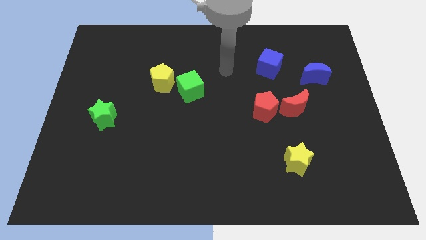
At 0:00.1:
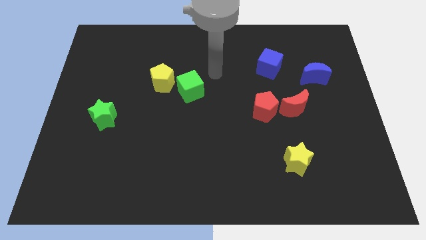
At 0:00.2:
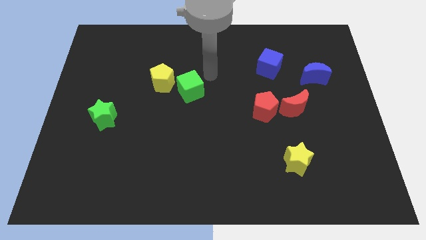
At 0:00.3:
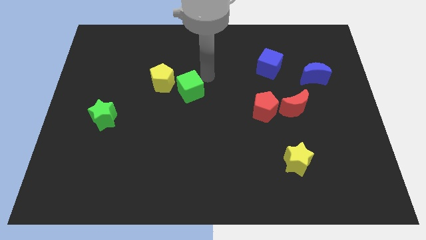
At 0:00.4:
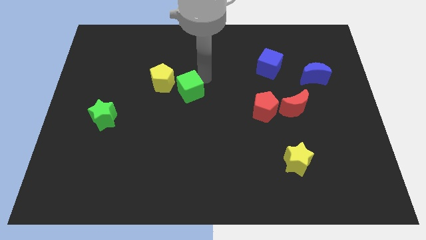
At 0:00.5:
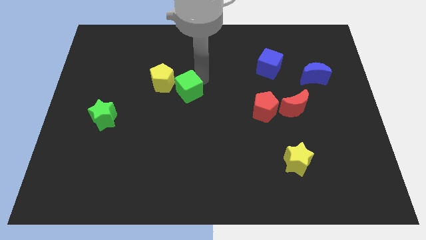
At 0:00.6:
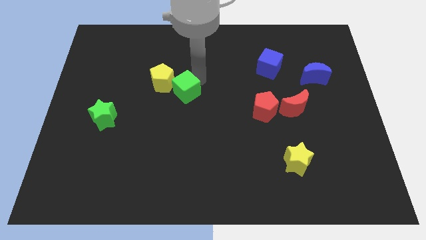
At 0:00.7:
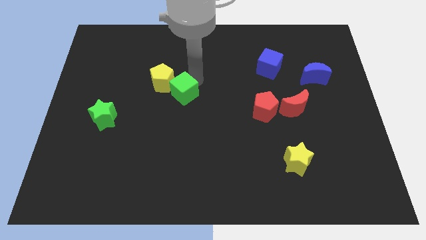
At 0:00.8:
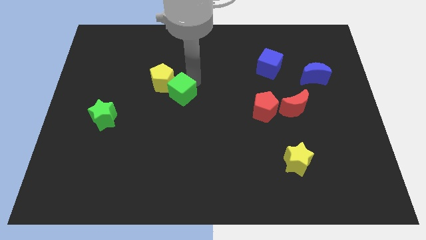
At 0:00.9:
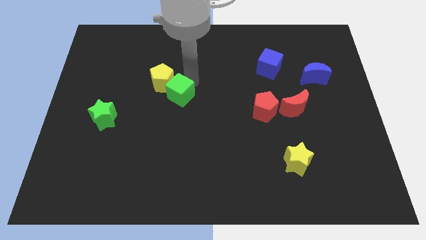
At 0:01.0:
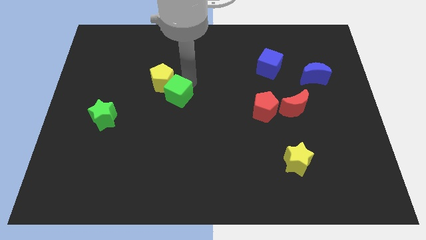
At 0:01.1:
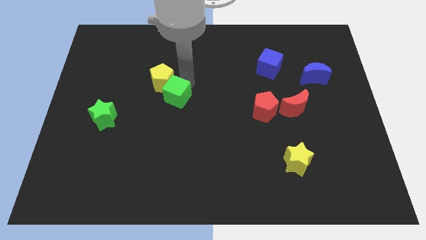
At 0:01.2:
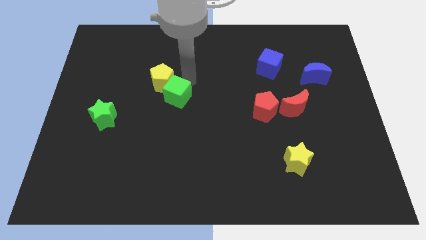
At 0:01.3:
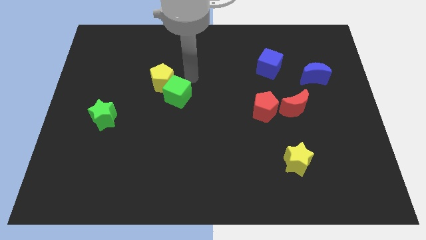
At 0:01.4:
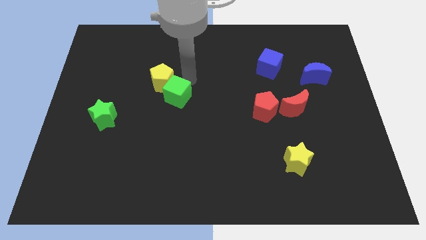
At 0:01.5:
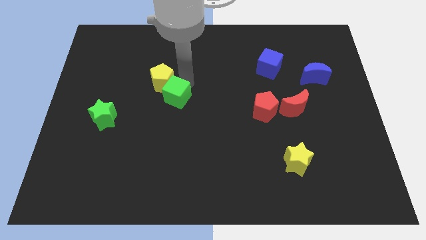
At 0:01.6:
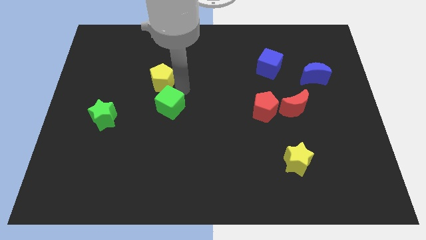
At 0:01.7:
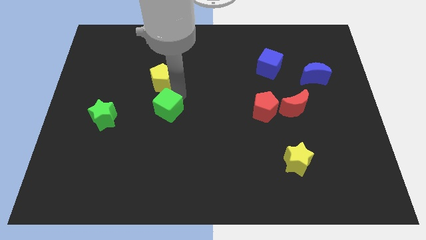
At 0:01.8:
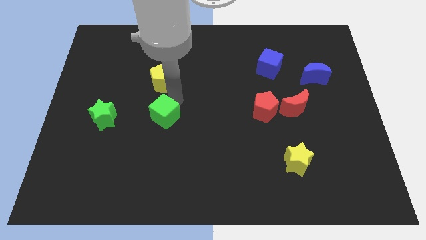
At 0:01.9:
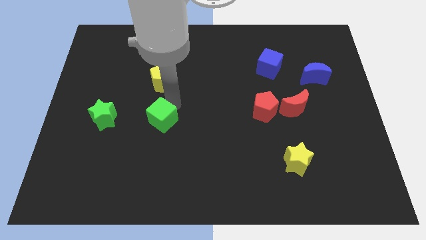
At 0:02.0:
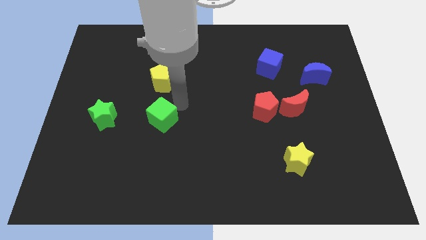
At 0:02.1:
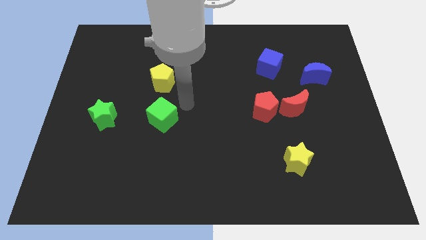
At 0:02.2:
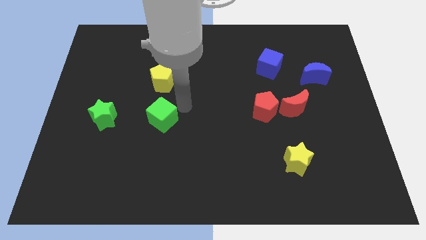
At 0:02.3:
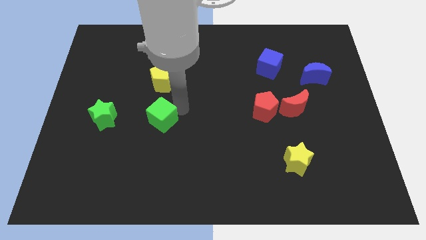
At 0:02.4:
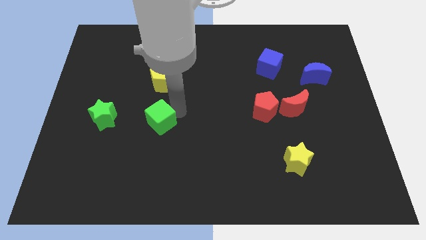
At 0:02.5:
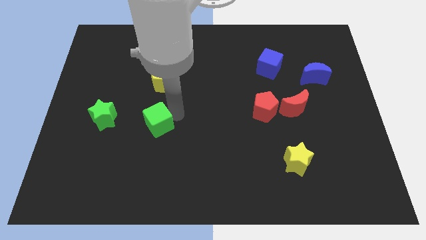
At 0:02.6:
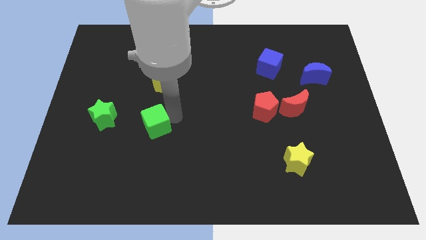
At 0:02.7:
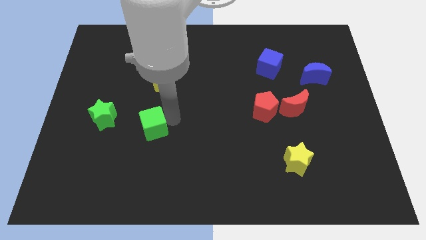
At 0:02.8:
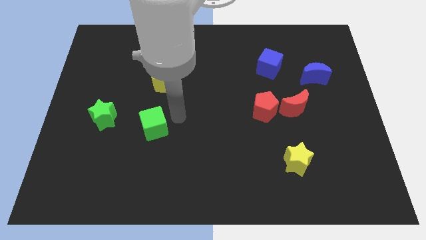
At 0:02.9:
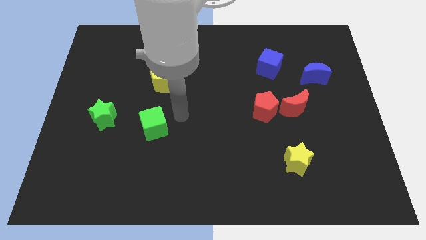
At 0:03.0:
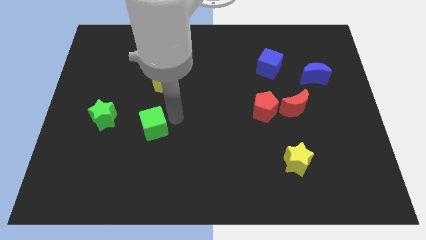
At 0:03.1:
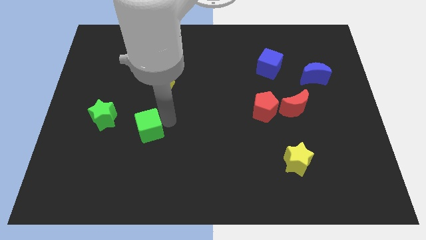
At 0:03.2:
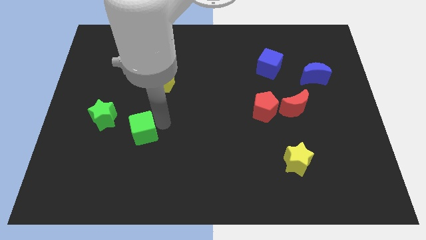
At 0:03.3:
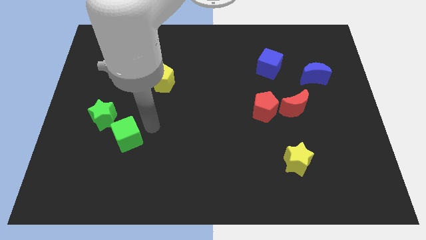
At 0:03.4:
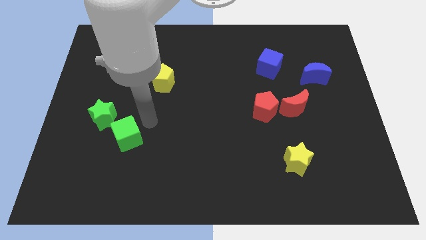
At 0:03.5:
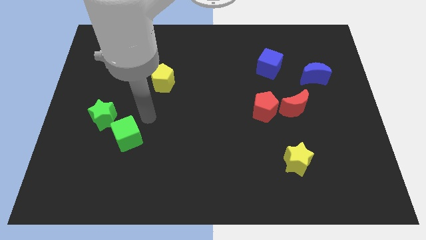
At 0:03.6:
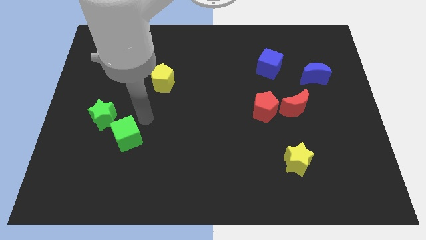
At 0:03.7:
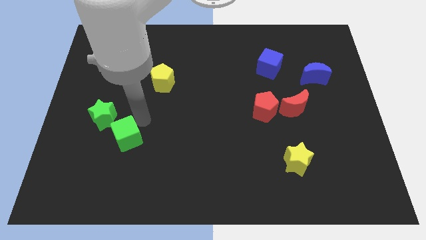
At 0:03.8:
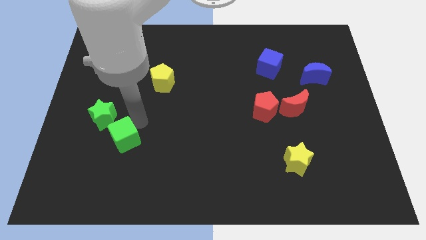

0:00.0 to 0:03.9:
slide the green cube downwards and to the left diagonally

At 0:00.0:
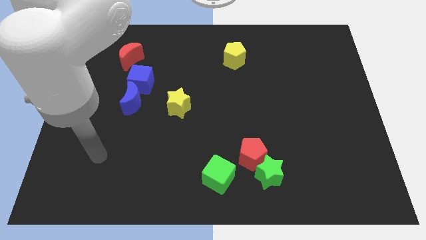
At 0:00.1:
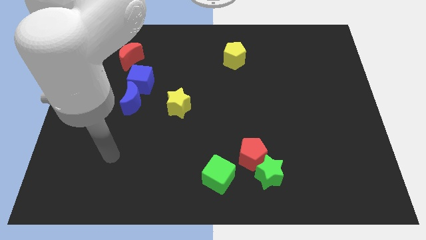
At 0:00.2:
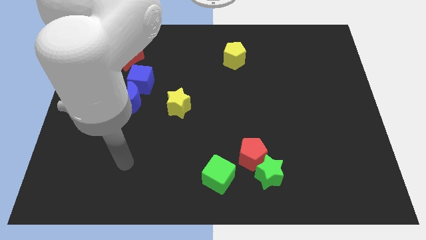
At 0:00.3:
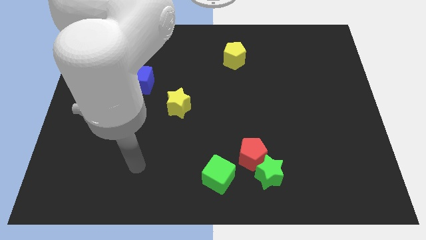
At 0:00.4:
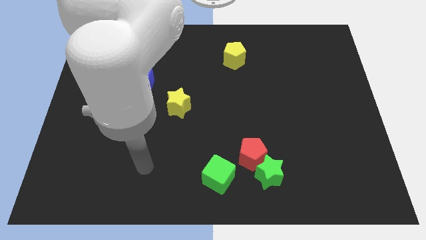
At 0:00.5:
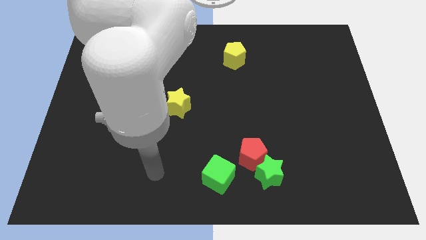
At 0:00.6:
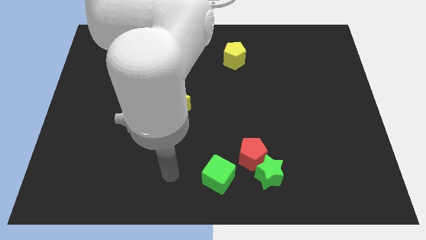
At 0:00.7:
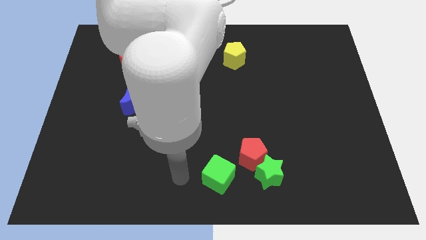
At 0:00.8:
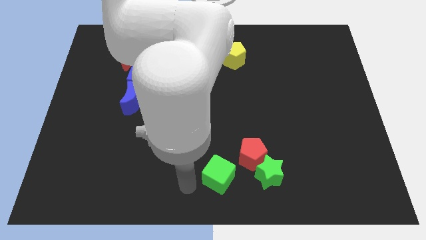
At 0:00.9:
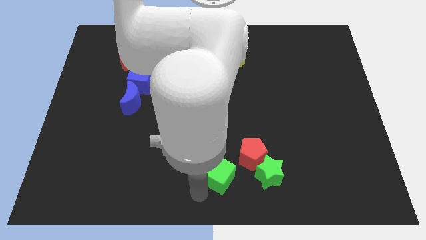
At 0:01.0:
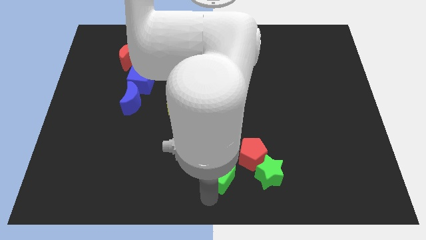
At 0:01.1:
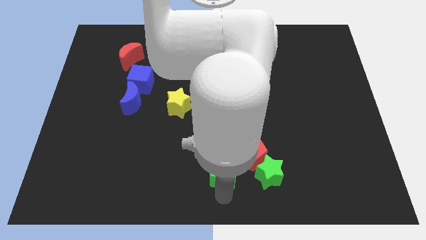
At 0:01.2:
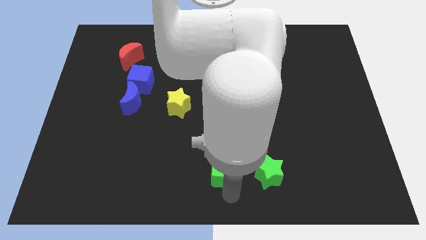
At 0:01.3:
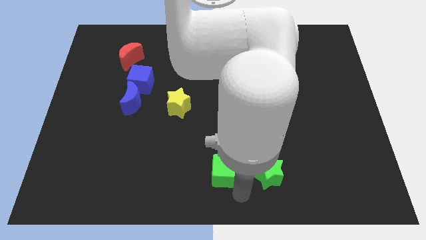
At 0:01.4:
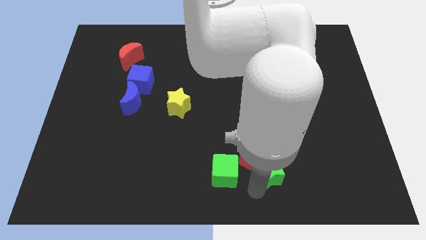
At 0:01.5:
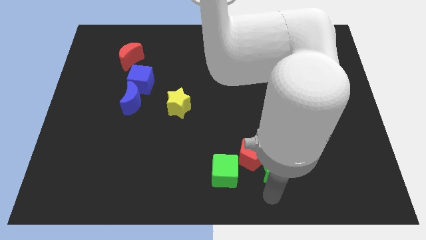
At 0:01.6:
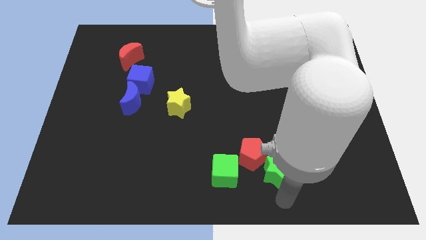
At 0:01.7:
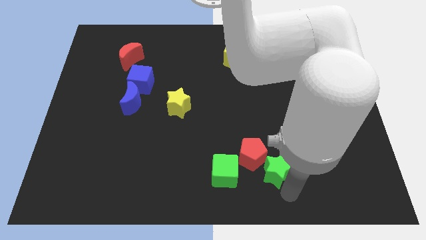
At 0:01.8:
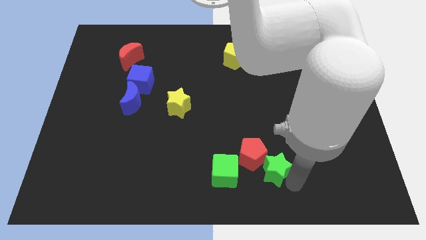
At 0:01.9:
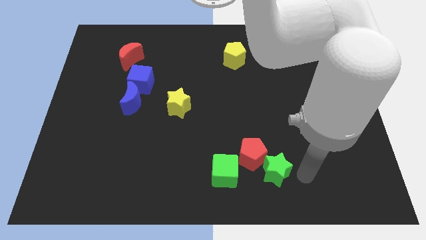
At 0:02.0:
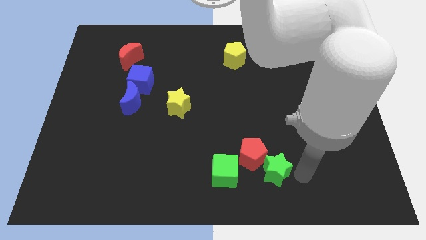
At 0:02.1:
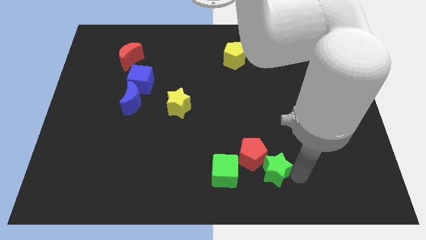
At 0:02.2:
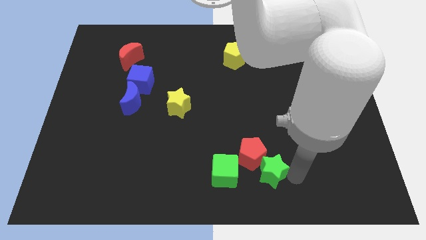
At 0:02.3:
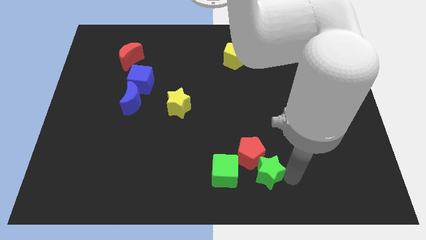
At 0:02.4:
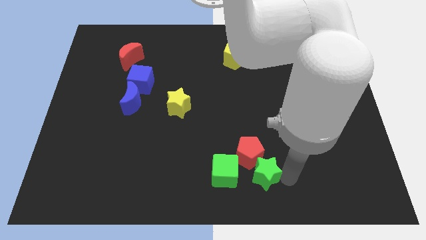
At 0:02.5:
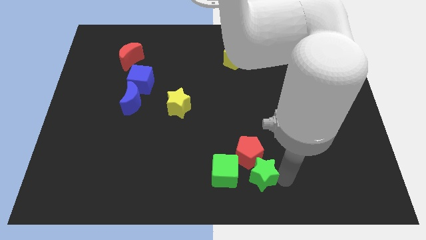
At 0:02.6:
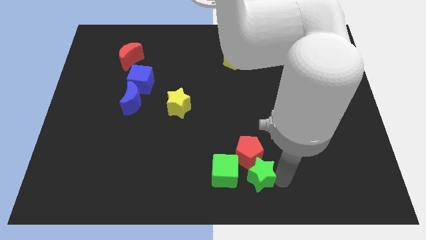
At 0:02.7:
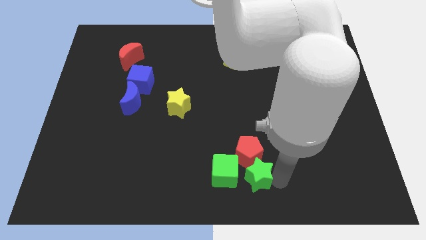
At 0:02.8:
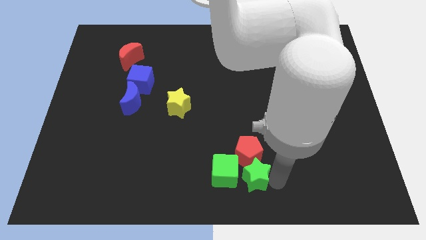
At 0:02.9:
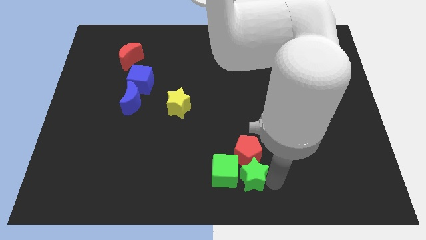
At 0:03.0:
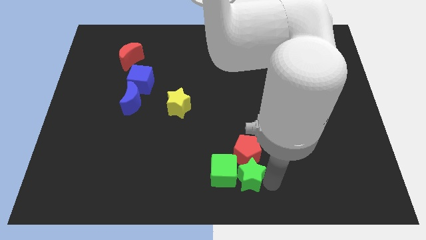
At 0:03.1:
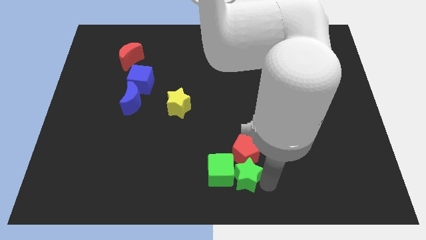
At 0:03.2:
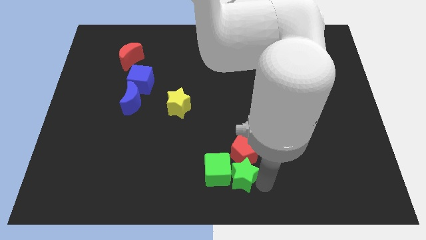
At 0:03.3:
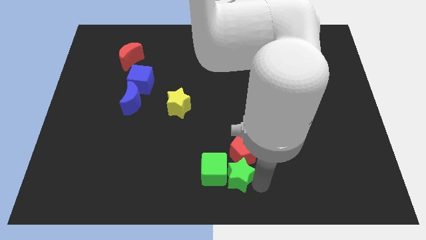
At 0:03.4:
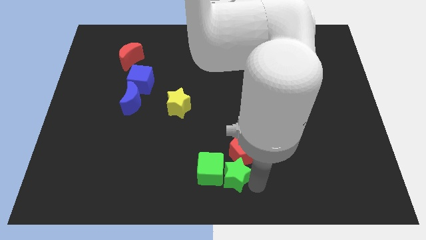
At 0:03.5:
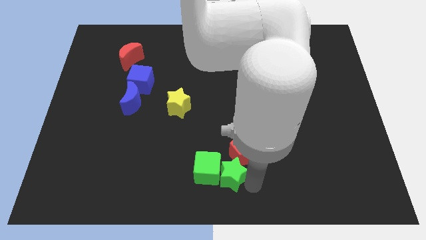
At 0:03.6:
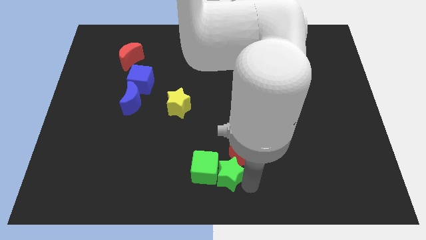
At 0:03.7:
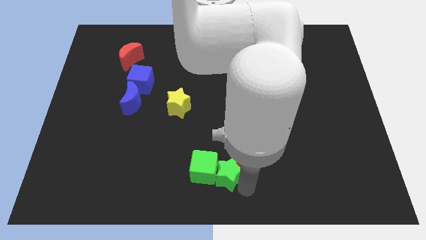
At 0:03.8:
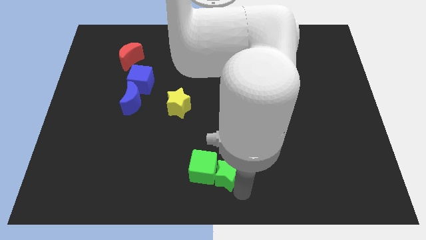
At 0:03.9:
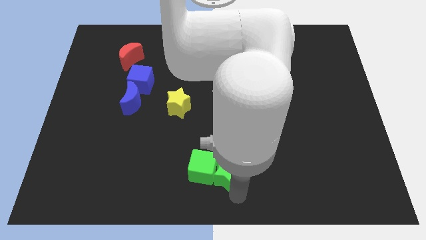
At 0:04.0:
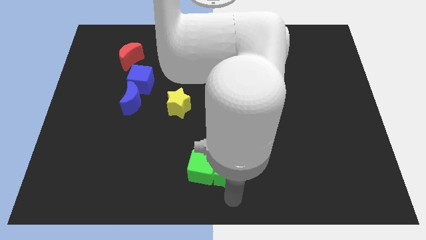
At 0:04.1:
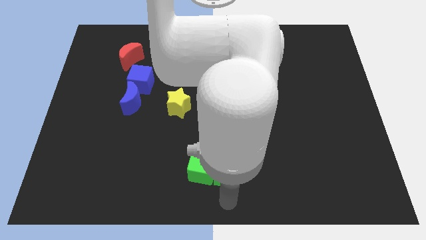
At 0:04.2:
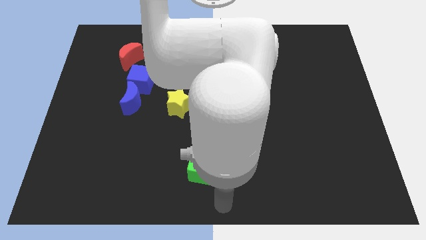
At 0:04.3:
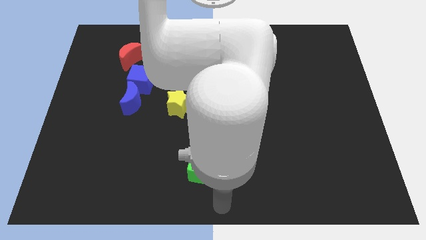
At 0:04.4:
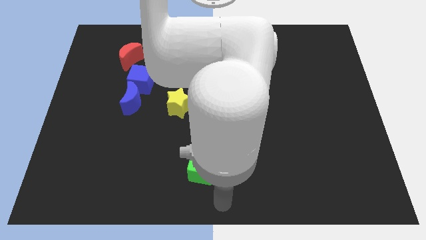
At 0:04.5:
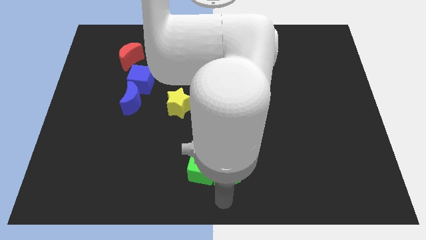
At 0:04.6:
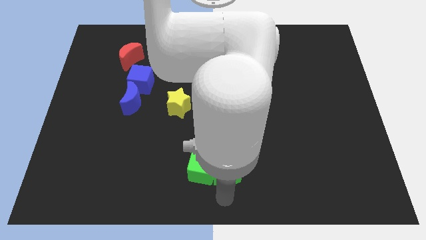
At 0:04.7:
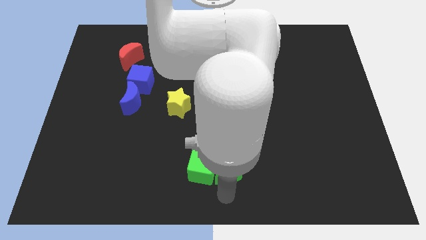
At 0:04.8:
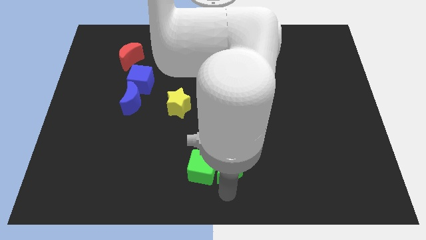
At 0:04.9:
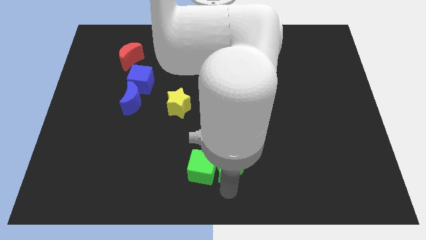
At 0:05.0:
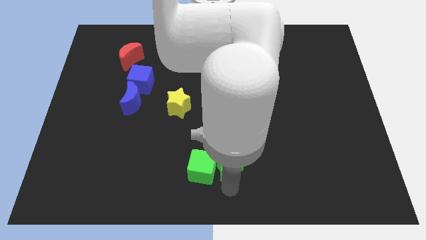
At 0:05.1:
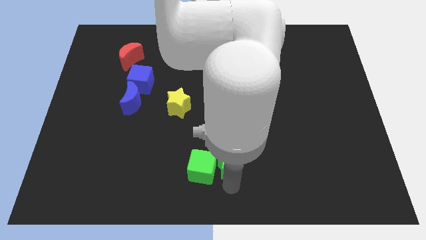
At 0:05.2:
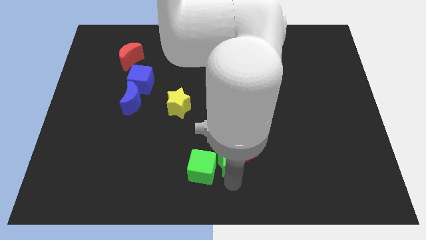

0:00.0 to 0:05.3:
slightly move the green star upwards and to the left
